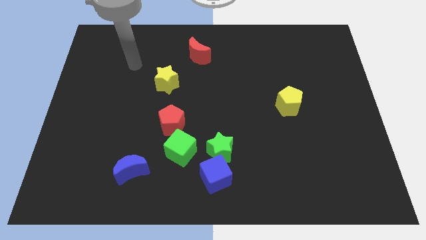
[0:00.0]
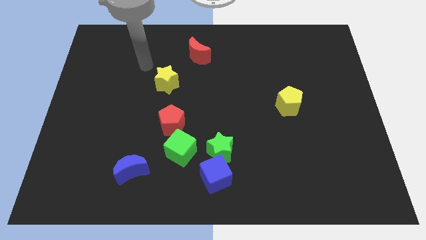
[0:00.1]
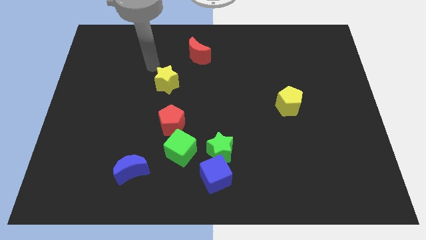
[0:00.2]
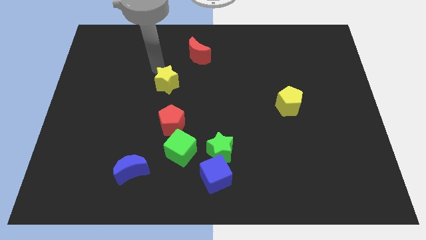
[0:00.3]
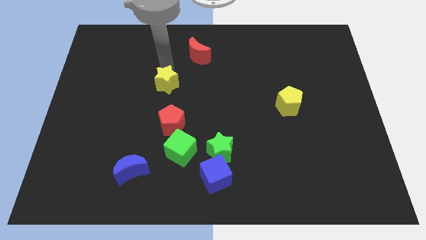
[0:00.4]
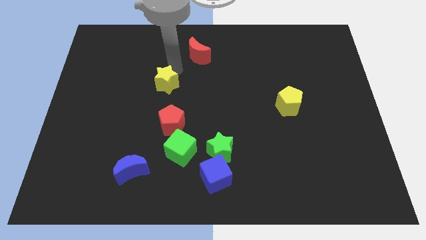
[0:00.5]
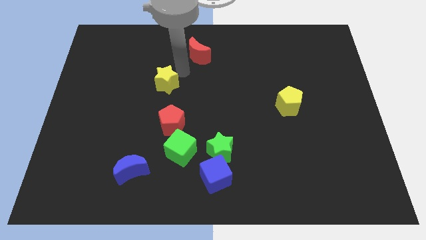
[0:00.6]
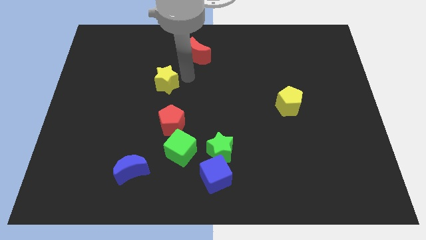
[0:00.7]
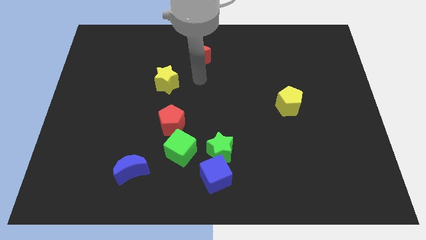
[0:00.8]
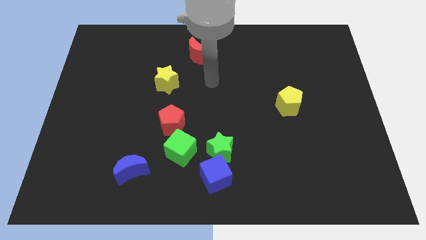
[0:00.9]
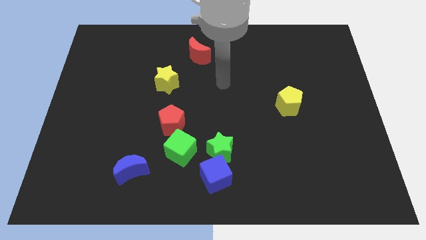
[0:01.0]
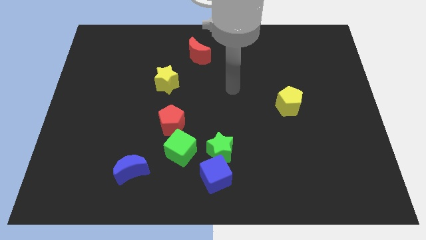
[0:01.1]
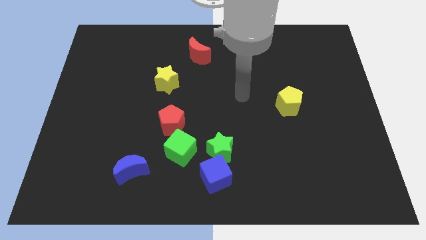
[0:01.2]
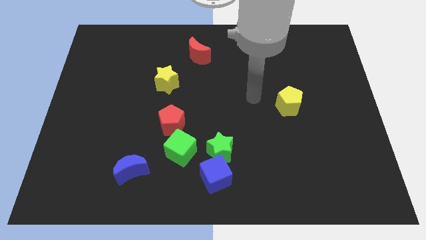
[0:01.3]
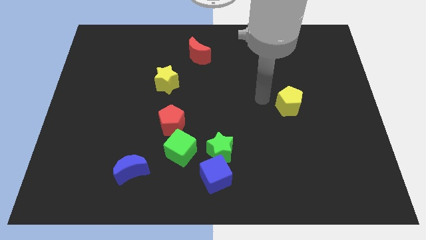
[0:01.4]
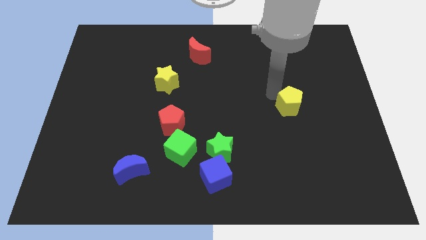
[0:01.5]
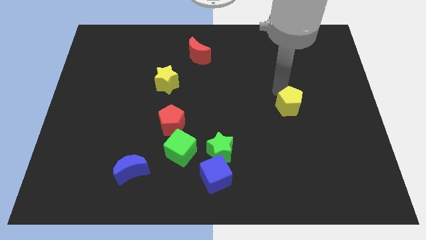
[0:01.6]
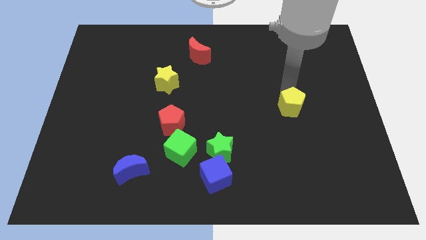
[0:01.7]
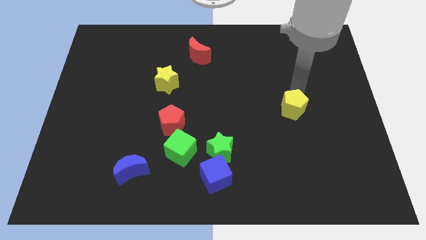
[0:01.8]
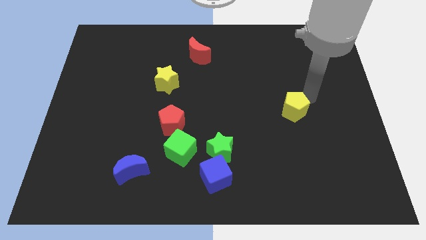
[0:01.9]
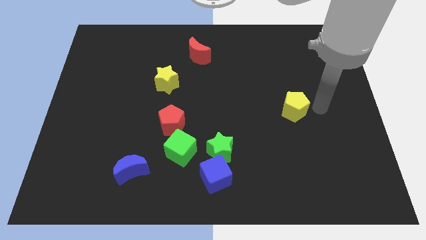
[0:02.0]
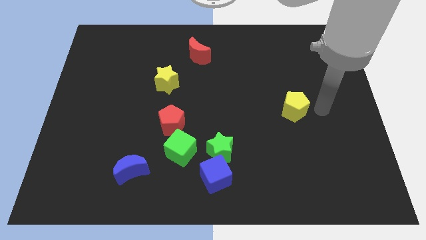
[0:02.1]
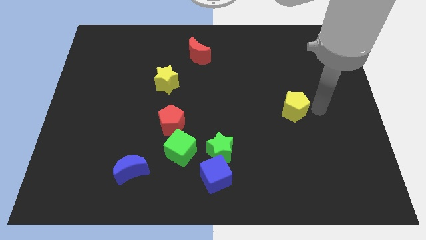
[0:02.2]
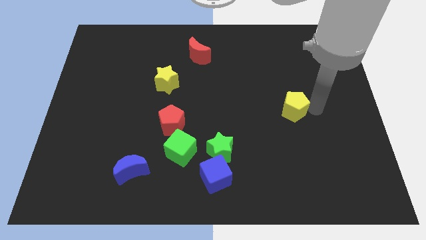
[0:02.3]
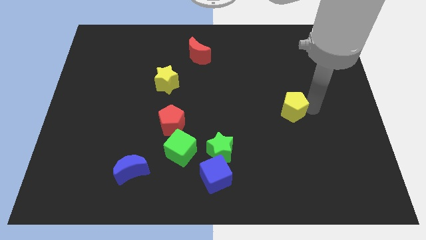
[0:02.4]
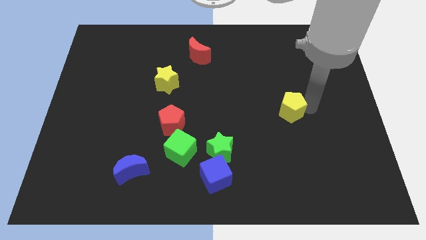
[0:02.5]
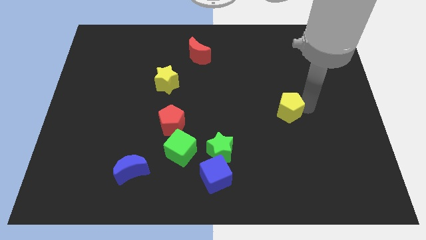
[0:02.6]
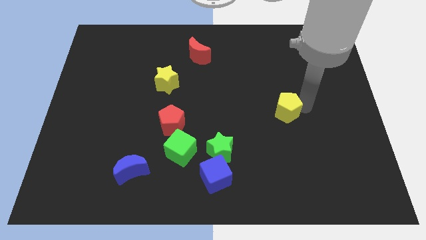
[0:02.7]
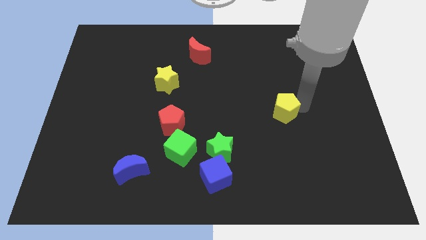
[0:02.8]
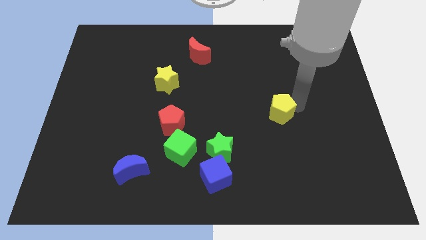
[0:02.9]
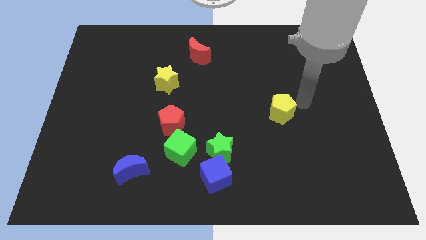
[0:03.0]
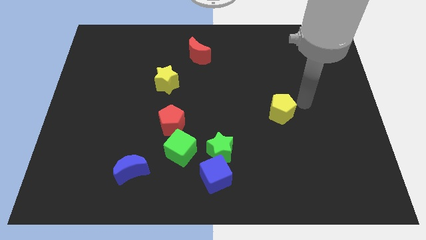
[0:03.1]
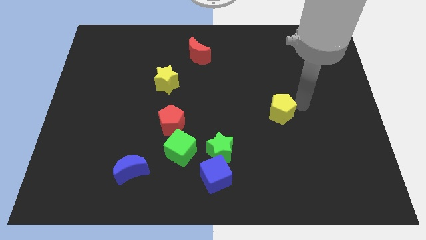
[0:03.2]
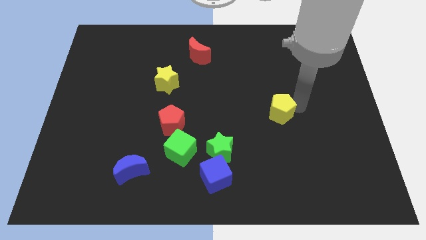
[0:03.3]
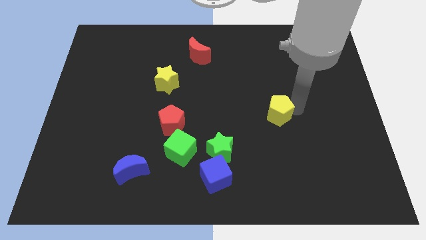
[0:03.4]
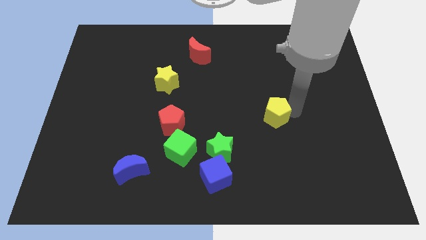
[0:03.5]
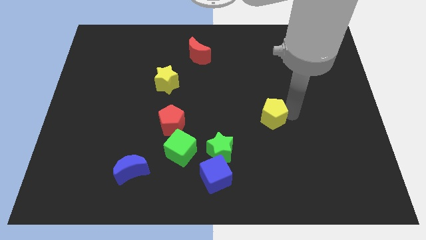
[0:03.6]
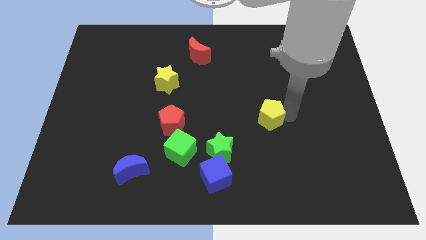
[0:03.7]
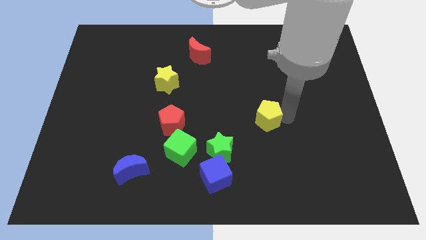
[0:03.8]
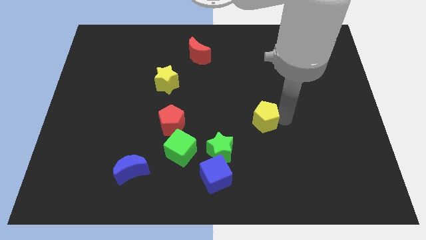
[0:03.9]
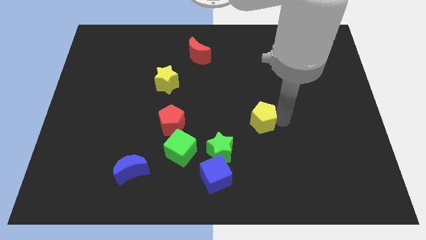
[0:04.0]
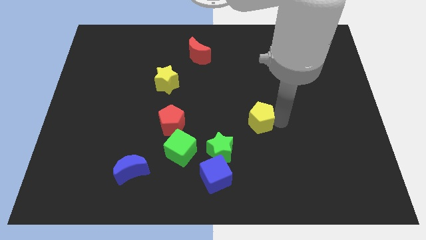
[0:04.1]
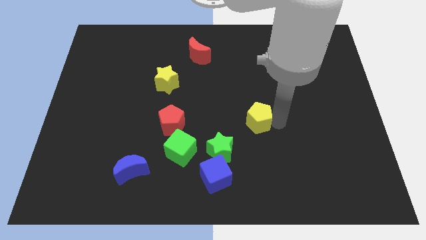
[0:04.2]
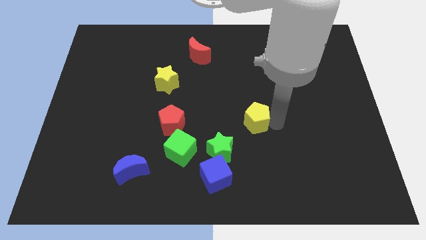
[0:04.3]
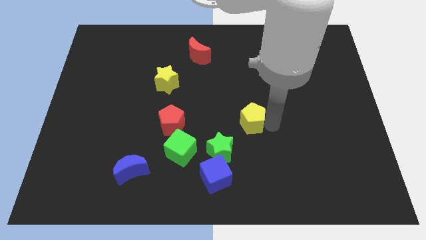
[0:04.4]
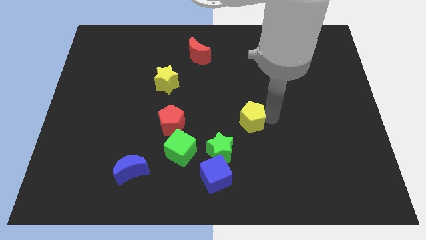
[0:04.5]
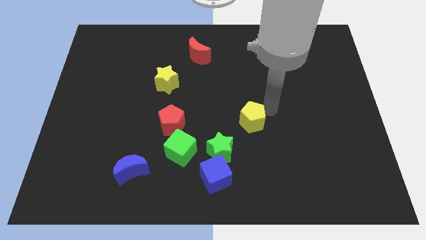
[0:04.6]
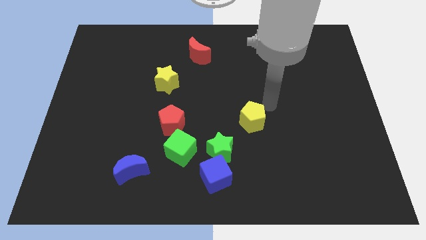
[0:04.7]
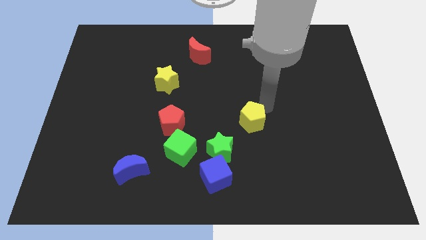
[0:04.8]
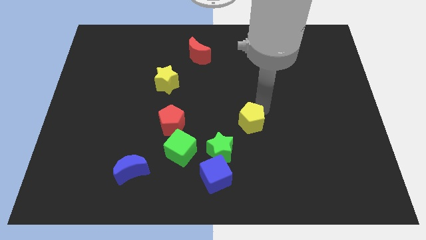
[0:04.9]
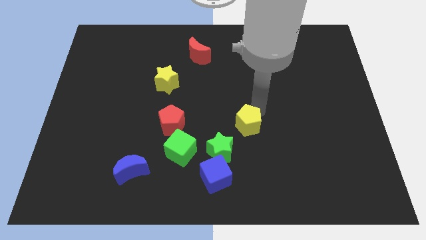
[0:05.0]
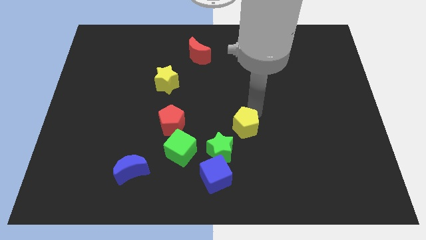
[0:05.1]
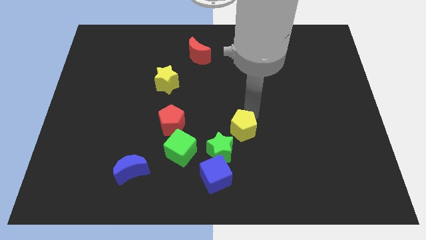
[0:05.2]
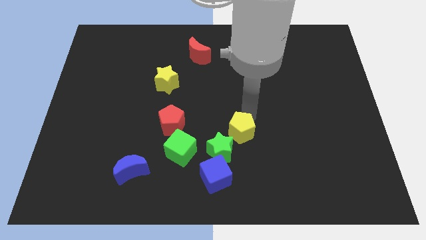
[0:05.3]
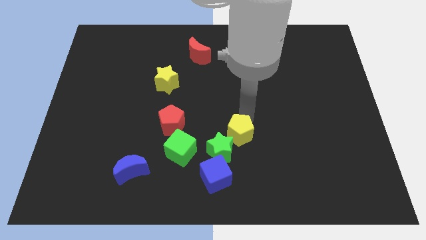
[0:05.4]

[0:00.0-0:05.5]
put the yellow pentagon towards the green star

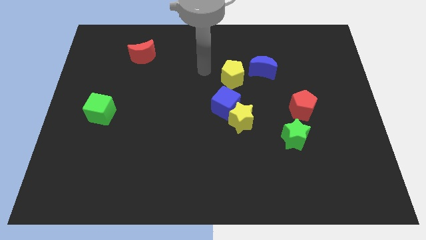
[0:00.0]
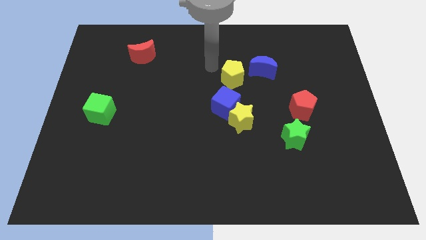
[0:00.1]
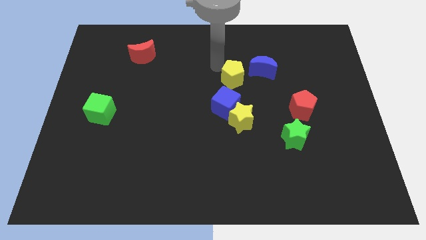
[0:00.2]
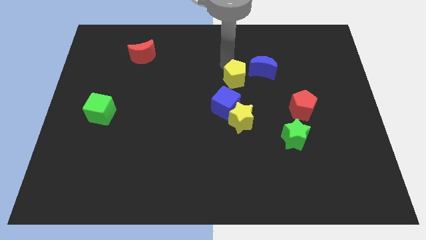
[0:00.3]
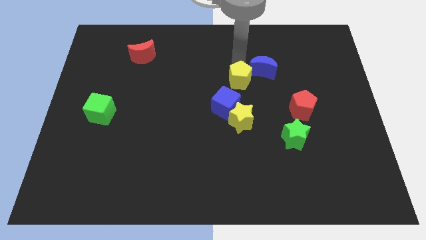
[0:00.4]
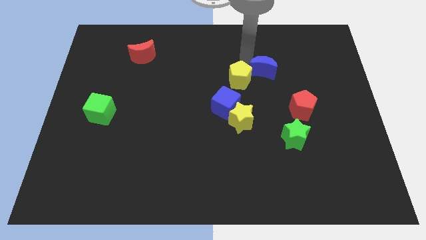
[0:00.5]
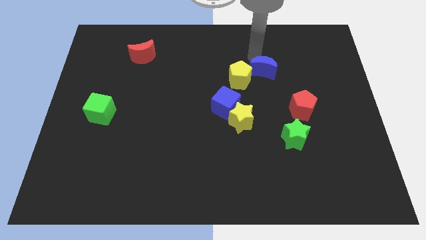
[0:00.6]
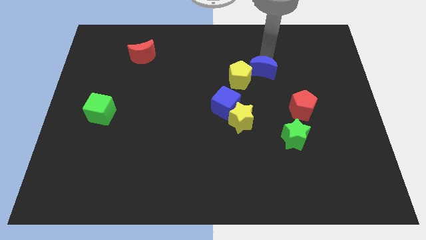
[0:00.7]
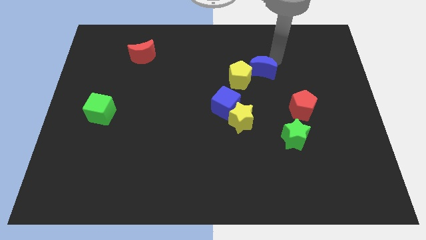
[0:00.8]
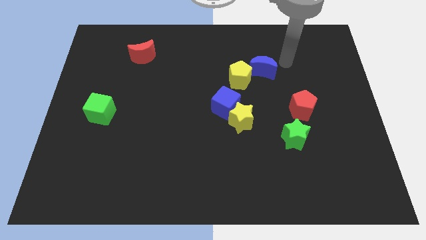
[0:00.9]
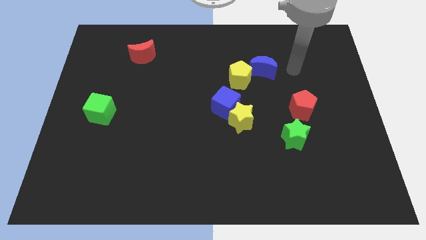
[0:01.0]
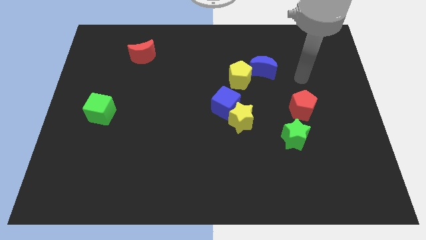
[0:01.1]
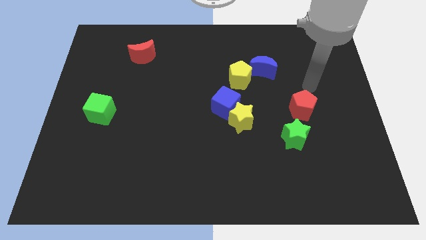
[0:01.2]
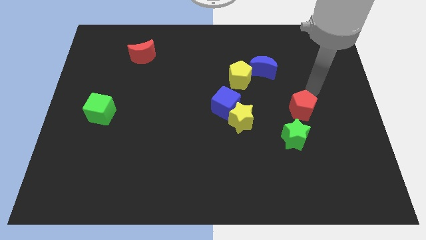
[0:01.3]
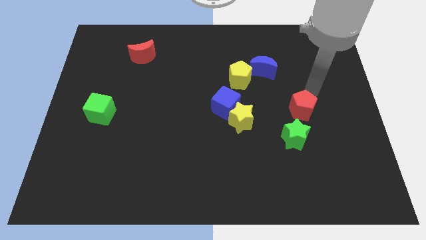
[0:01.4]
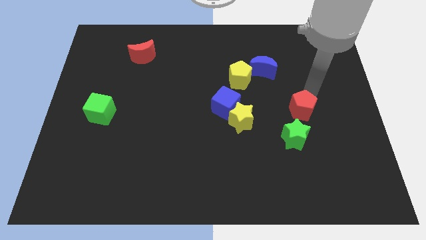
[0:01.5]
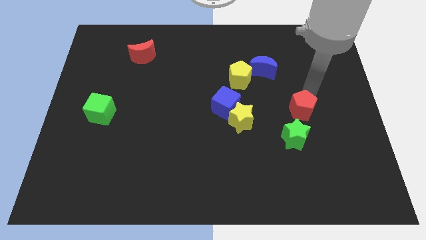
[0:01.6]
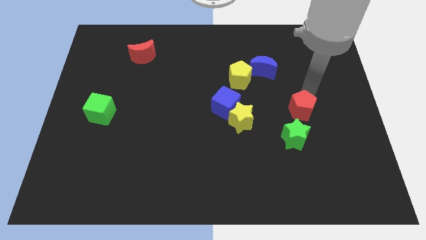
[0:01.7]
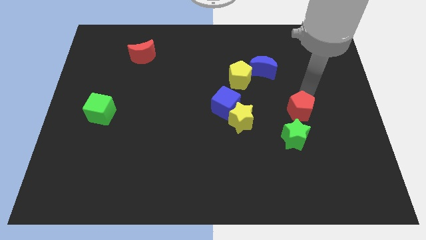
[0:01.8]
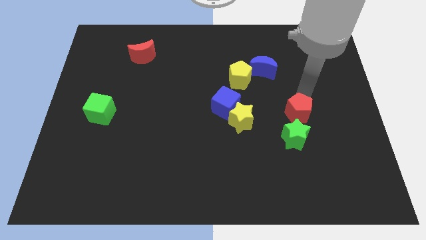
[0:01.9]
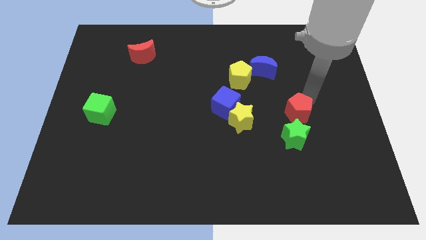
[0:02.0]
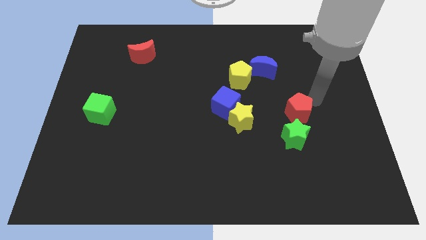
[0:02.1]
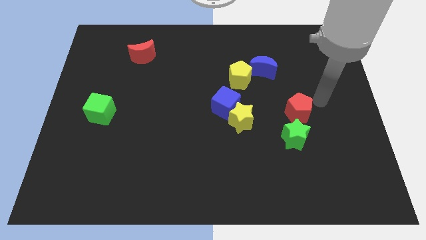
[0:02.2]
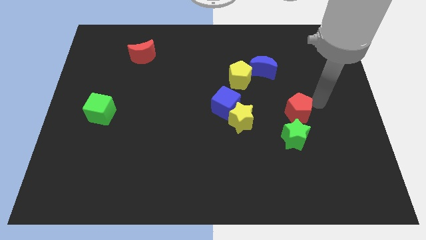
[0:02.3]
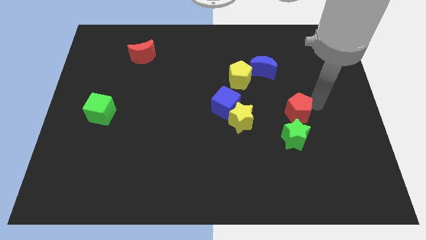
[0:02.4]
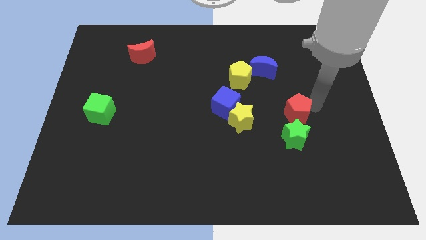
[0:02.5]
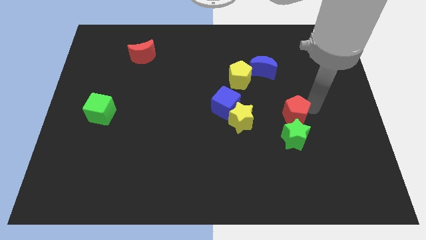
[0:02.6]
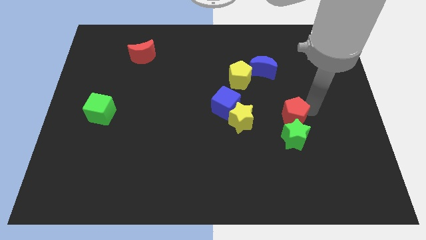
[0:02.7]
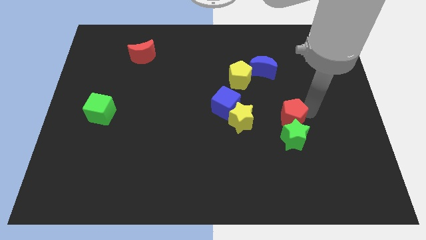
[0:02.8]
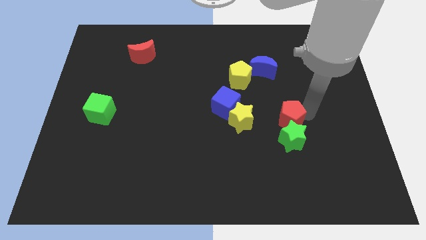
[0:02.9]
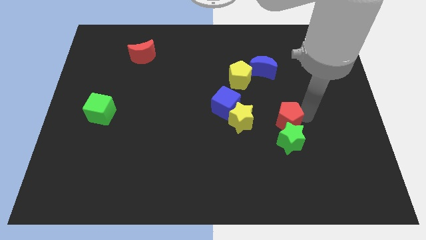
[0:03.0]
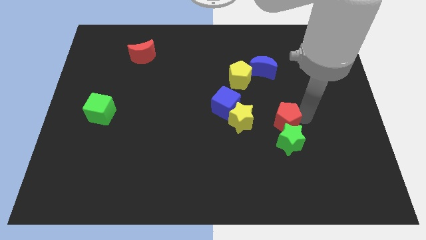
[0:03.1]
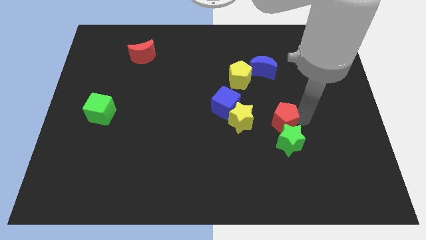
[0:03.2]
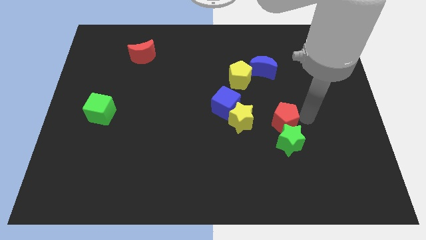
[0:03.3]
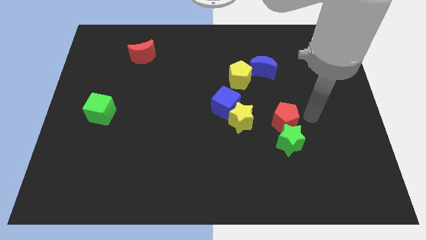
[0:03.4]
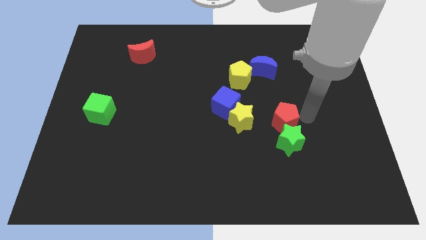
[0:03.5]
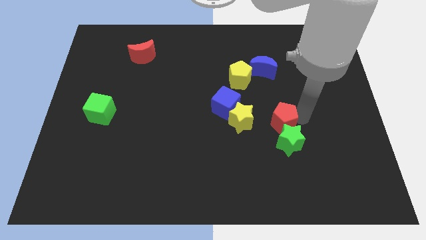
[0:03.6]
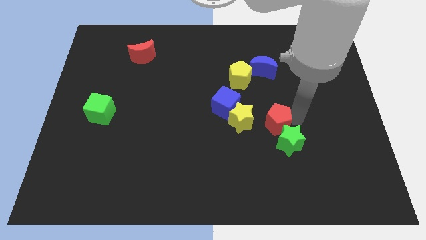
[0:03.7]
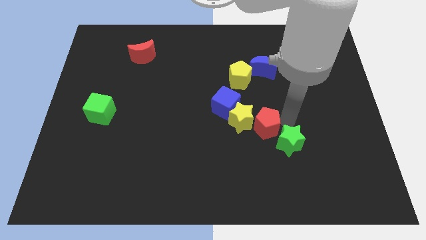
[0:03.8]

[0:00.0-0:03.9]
put the red pentagon towards the yellow star
